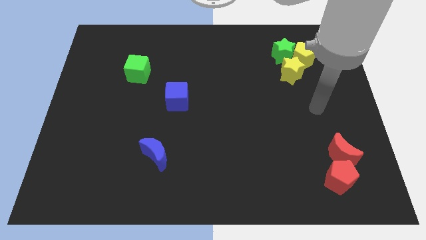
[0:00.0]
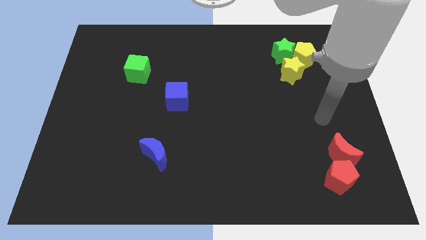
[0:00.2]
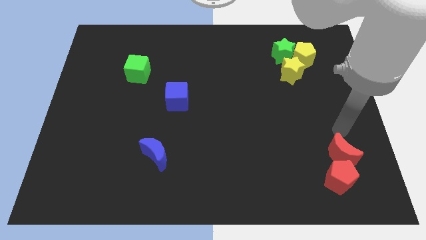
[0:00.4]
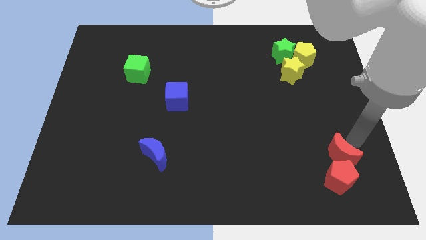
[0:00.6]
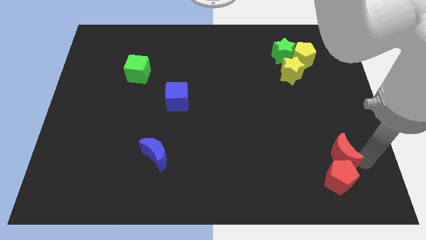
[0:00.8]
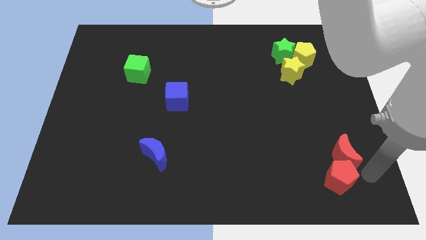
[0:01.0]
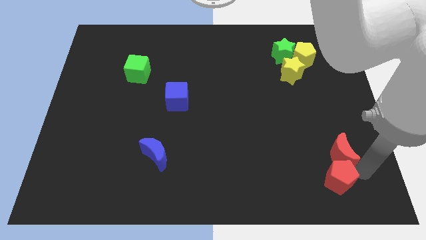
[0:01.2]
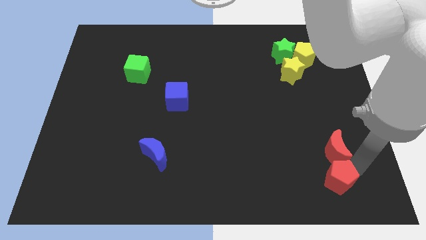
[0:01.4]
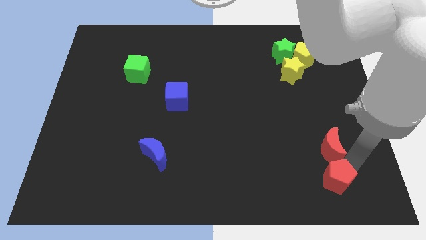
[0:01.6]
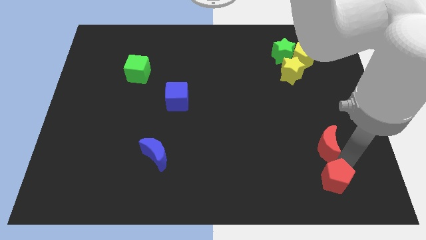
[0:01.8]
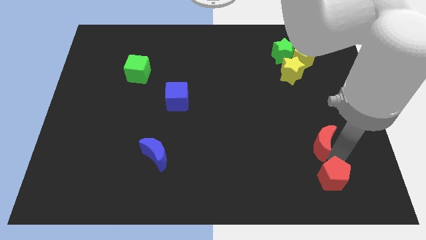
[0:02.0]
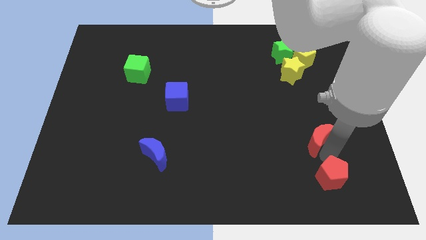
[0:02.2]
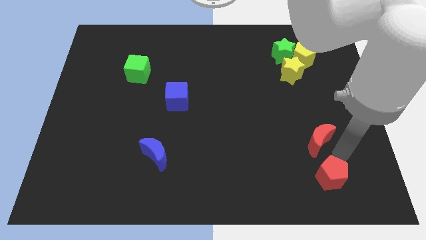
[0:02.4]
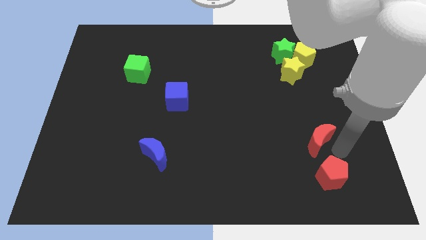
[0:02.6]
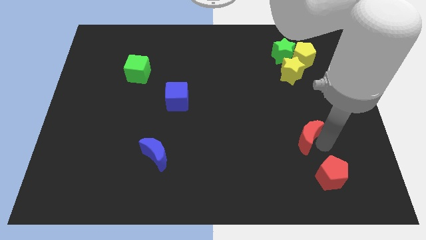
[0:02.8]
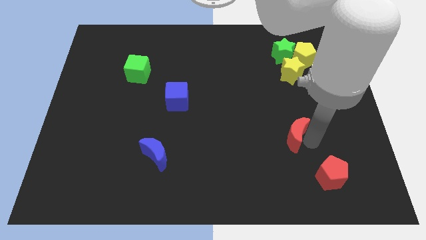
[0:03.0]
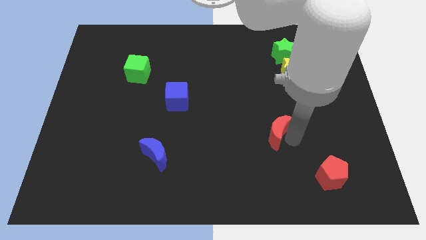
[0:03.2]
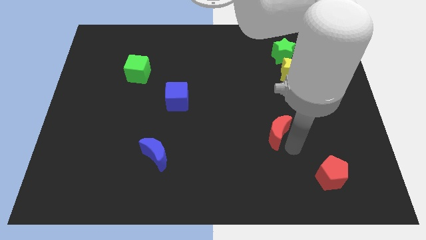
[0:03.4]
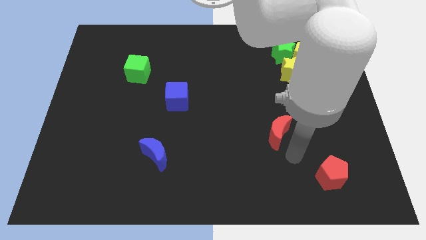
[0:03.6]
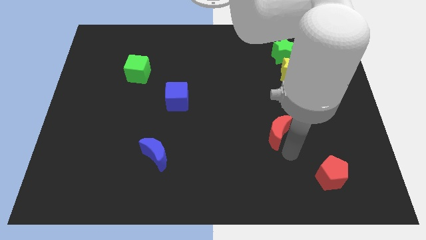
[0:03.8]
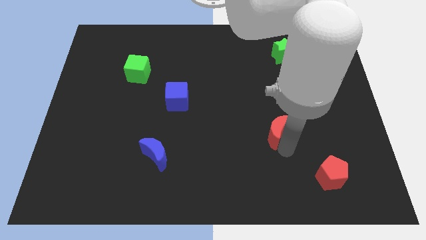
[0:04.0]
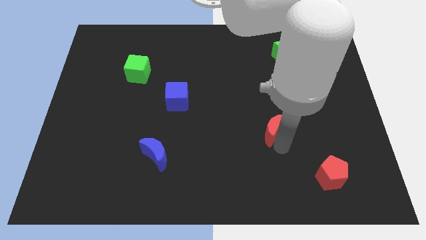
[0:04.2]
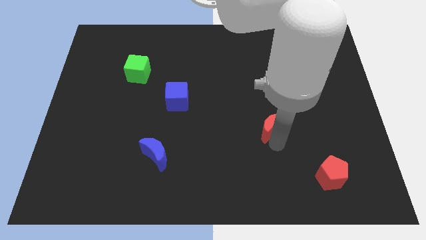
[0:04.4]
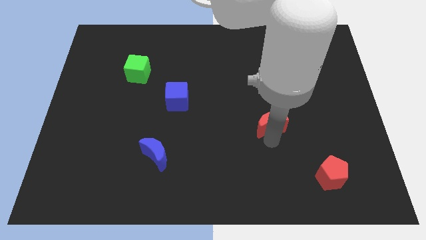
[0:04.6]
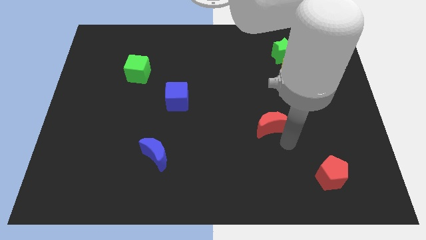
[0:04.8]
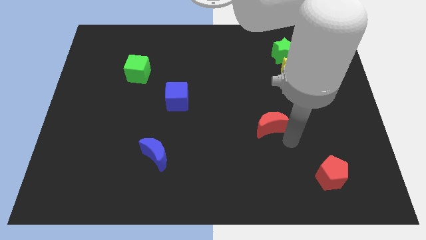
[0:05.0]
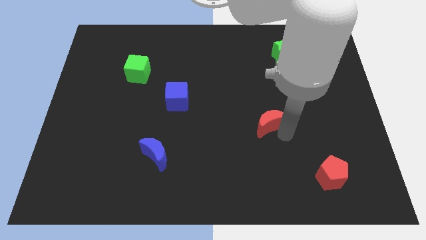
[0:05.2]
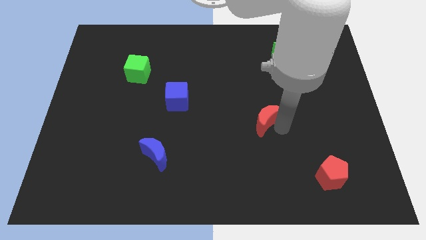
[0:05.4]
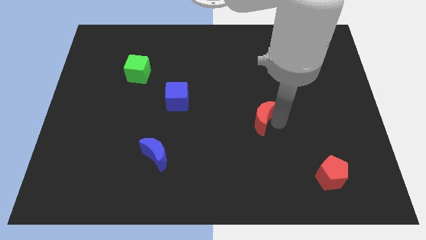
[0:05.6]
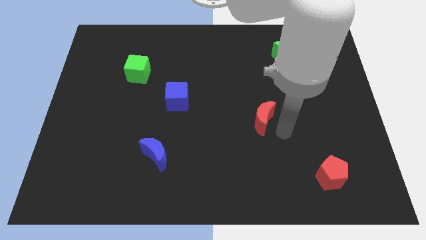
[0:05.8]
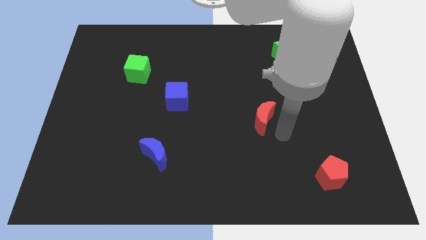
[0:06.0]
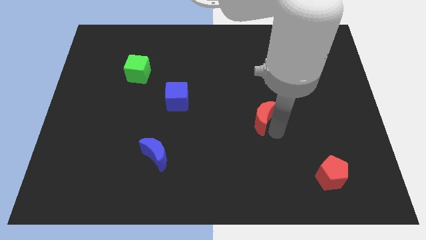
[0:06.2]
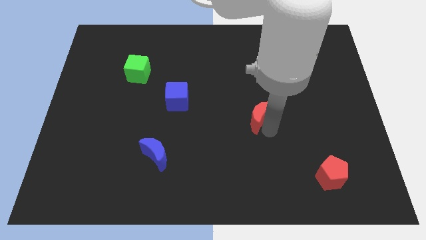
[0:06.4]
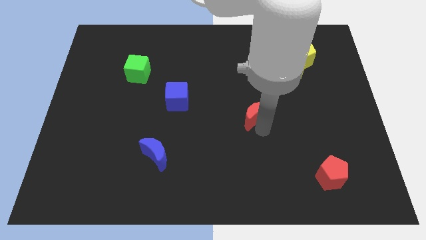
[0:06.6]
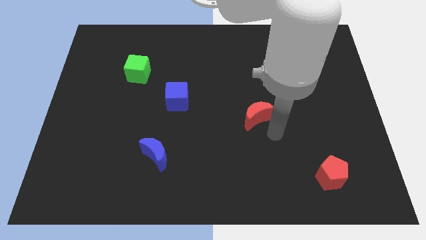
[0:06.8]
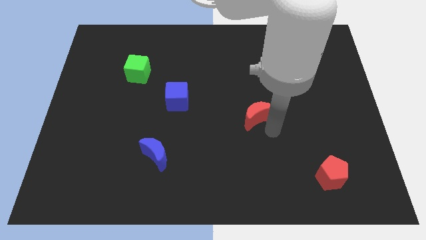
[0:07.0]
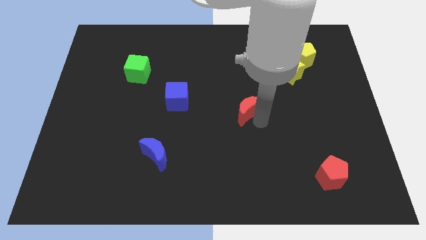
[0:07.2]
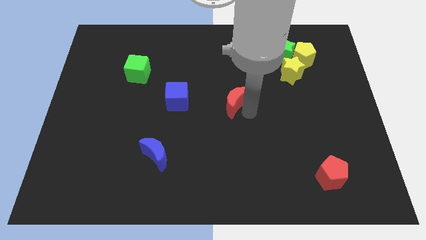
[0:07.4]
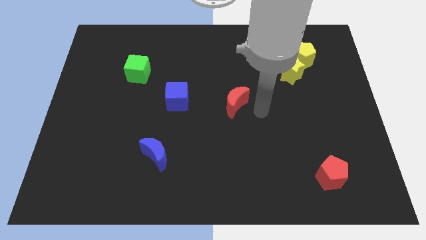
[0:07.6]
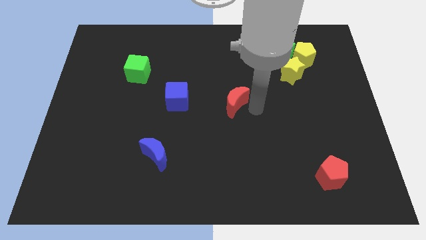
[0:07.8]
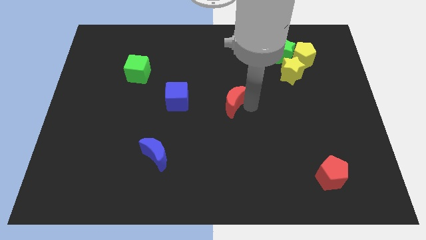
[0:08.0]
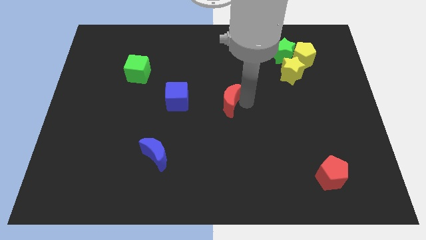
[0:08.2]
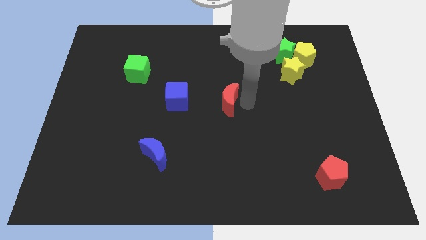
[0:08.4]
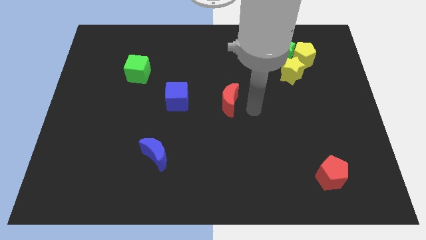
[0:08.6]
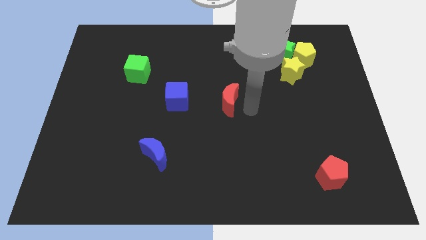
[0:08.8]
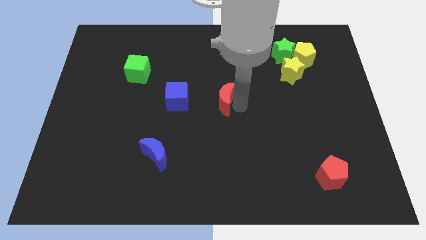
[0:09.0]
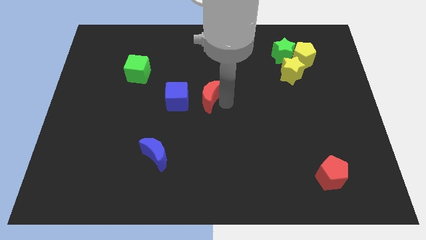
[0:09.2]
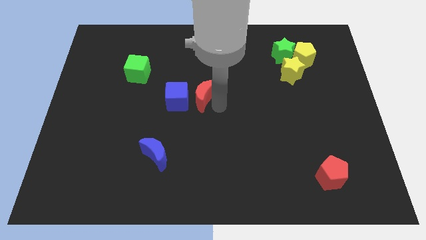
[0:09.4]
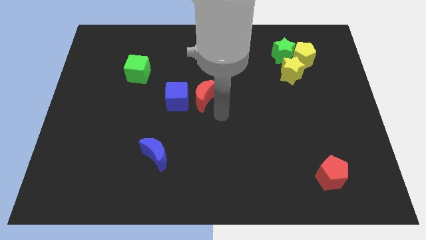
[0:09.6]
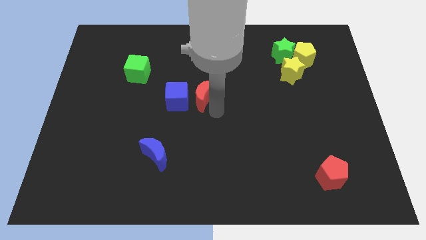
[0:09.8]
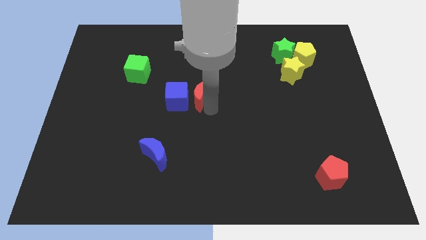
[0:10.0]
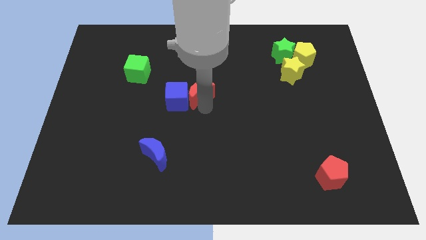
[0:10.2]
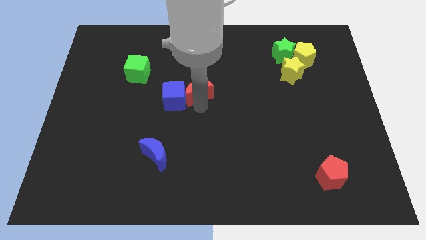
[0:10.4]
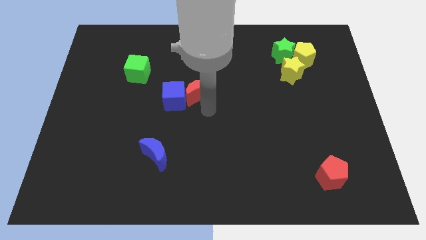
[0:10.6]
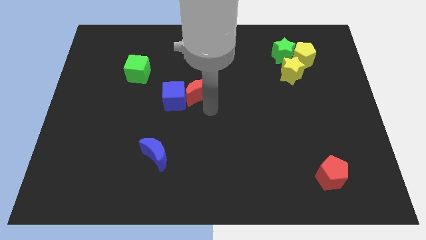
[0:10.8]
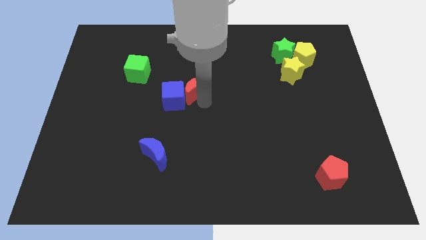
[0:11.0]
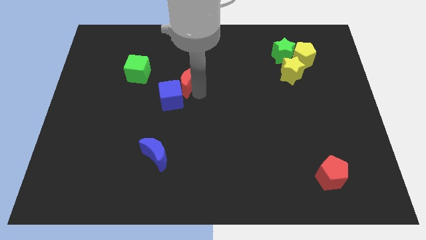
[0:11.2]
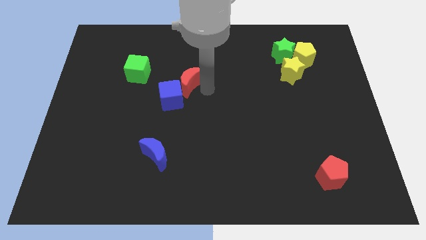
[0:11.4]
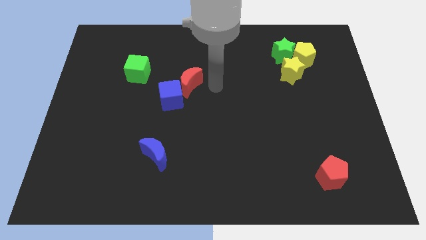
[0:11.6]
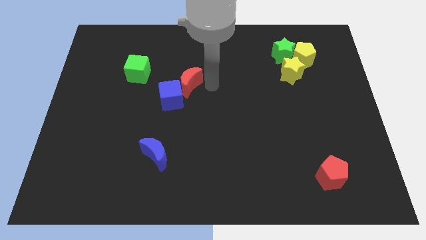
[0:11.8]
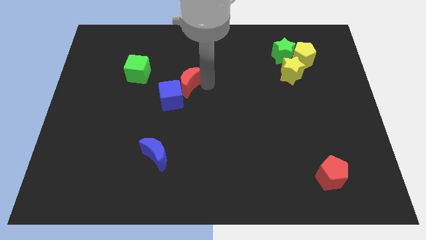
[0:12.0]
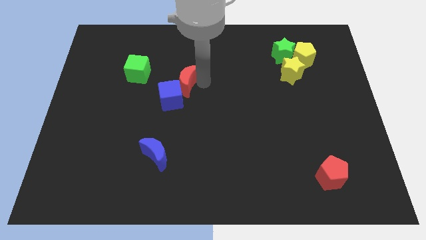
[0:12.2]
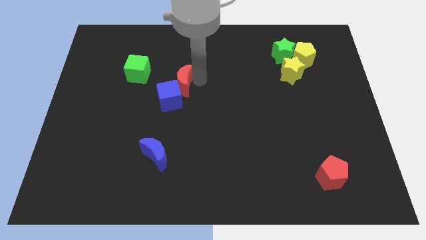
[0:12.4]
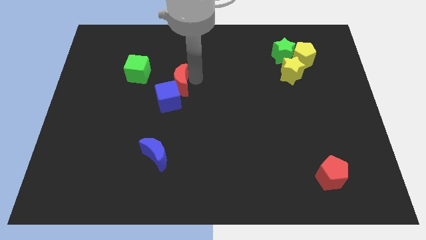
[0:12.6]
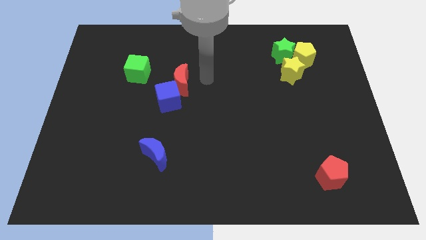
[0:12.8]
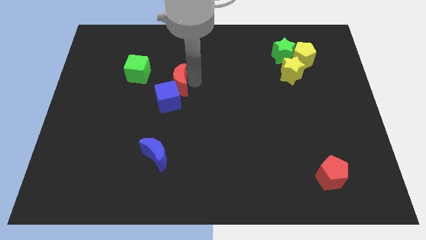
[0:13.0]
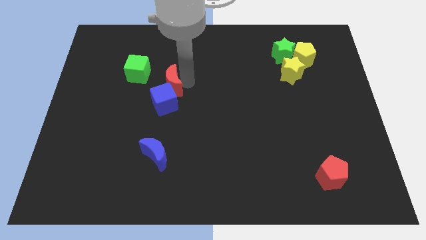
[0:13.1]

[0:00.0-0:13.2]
push the red moon diagonally down and to the right of the green cube

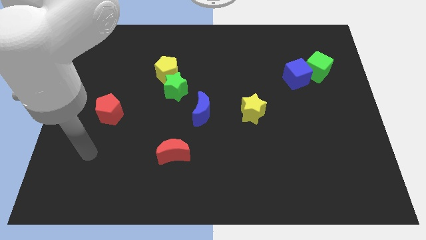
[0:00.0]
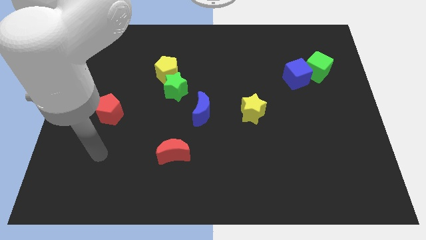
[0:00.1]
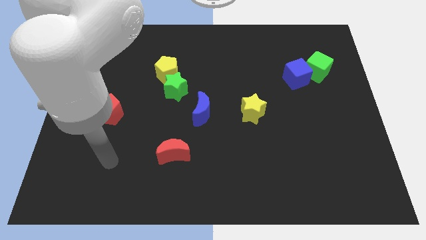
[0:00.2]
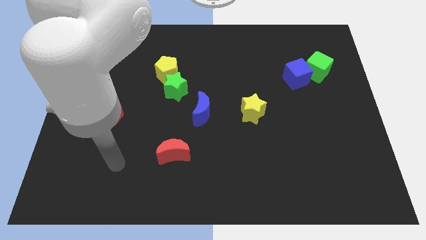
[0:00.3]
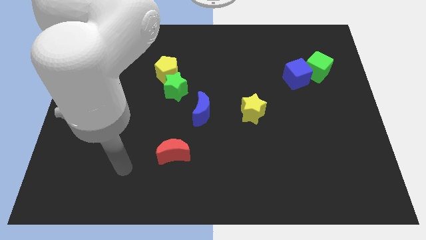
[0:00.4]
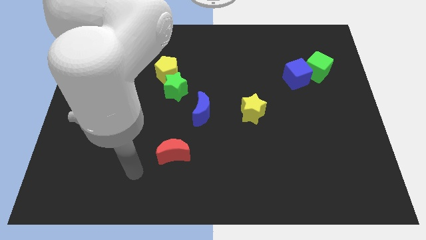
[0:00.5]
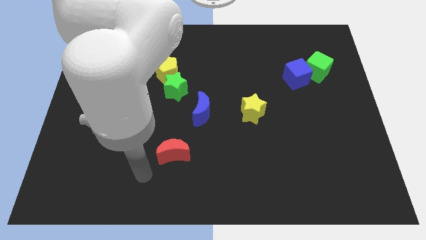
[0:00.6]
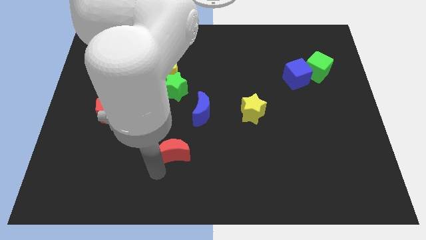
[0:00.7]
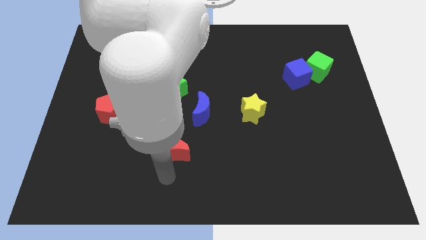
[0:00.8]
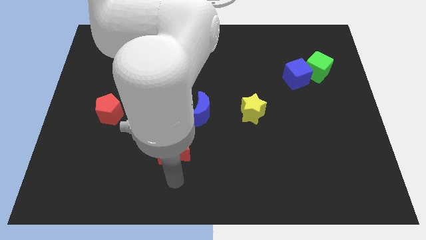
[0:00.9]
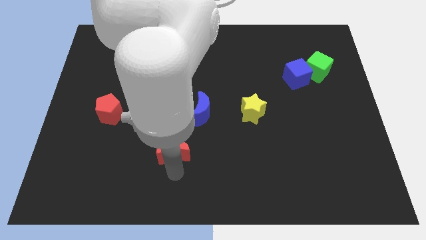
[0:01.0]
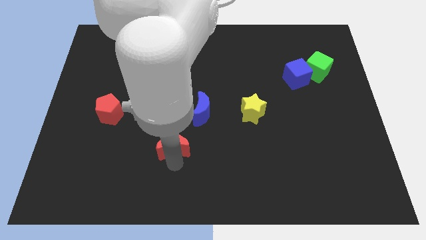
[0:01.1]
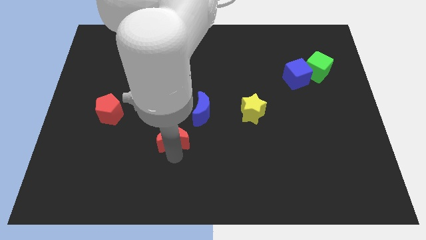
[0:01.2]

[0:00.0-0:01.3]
slide the red moon below the green star
